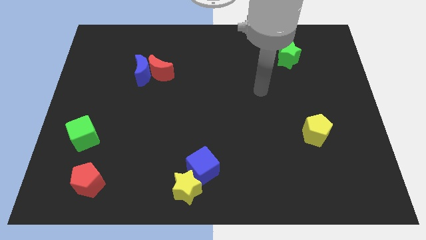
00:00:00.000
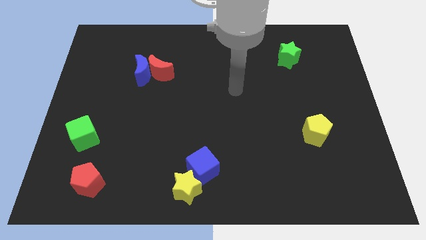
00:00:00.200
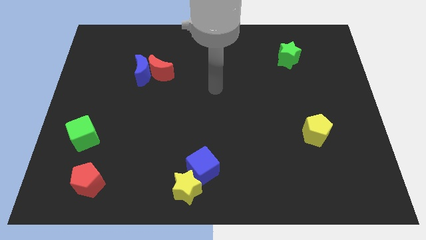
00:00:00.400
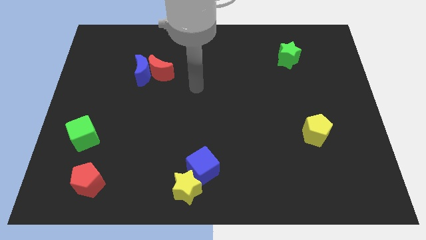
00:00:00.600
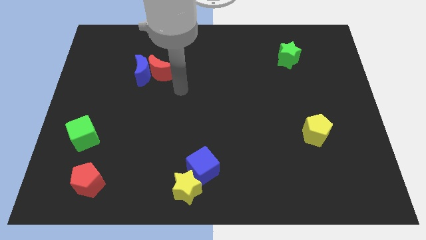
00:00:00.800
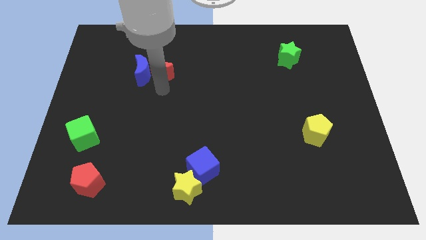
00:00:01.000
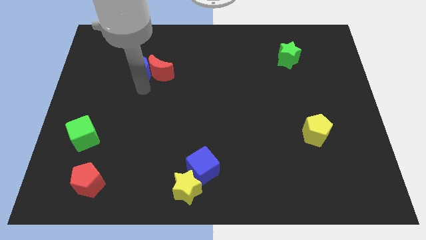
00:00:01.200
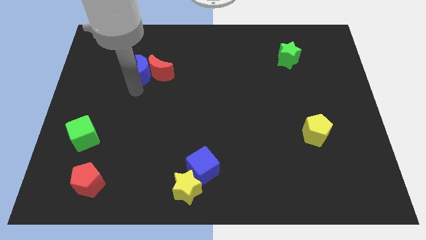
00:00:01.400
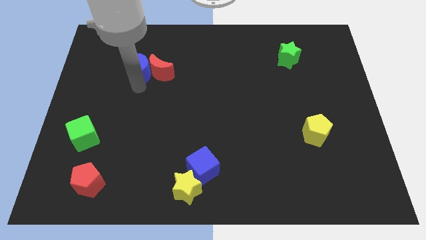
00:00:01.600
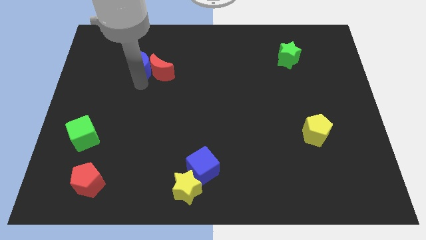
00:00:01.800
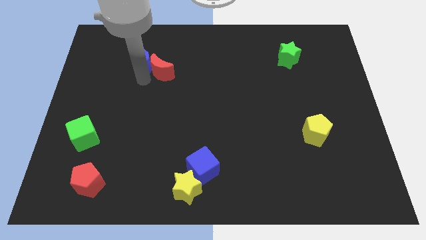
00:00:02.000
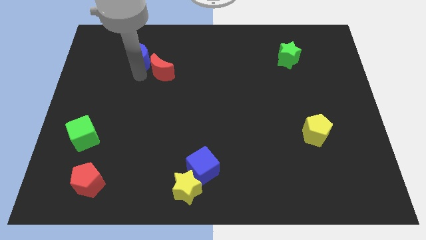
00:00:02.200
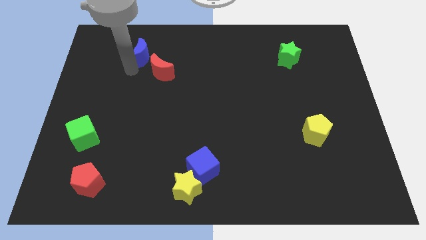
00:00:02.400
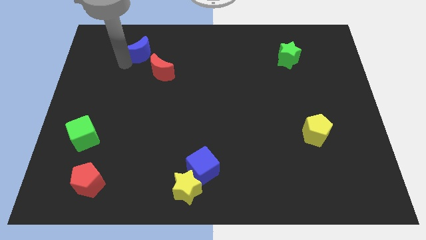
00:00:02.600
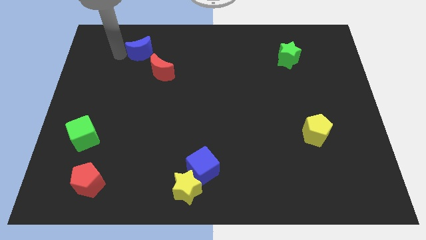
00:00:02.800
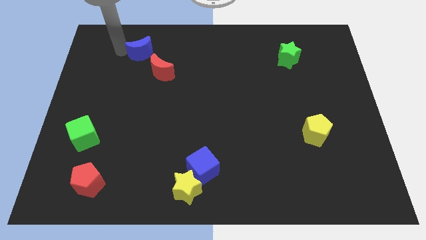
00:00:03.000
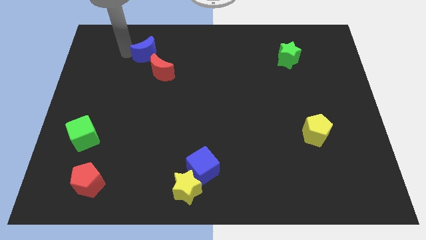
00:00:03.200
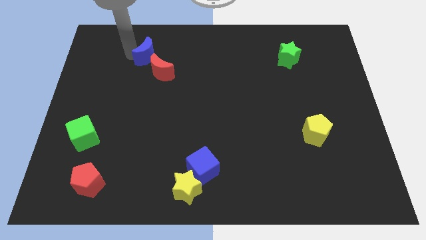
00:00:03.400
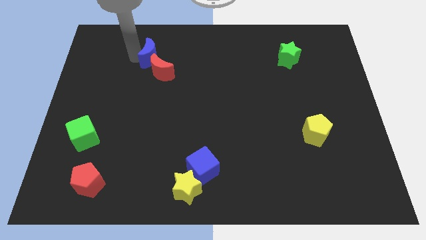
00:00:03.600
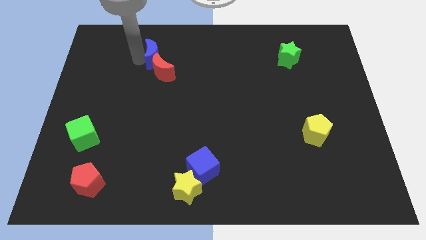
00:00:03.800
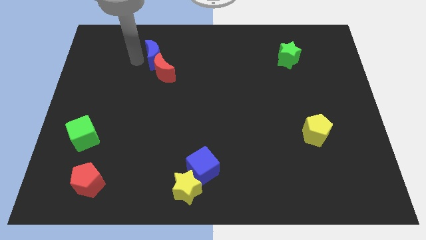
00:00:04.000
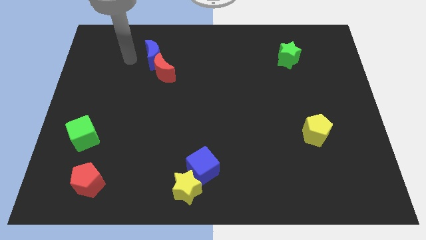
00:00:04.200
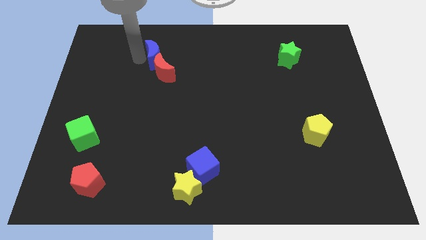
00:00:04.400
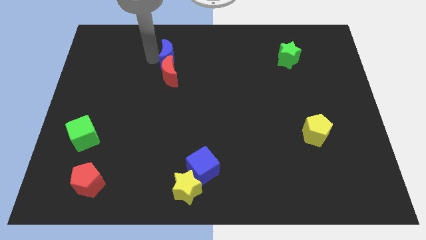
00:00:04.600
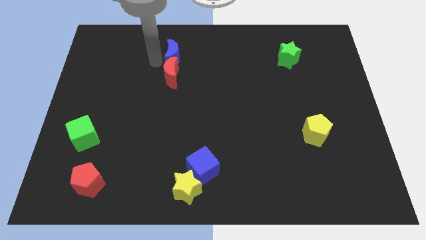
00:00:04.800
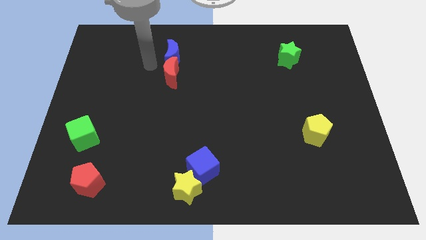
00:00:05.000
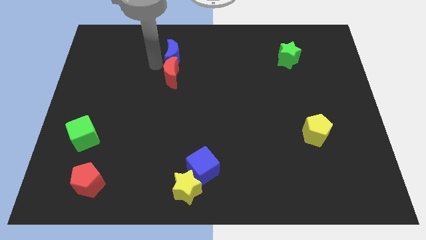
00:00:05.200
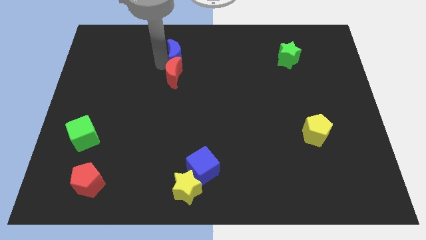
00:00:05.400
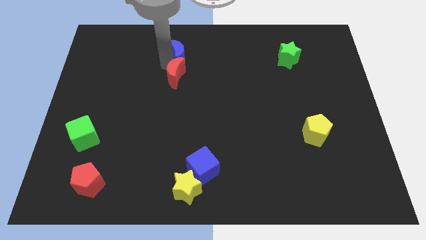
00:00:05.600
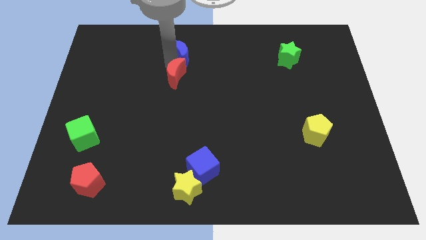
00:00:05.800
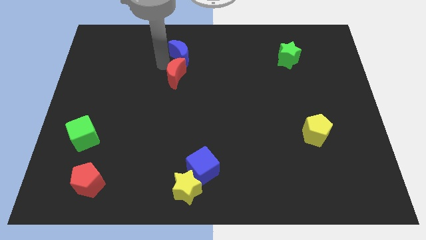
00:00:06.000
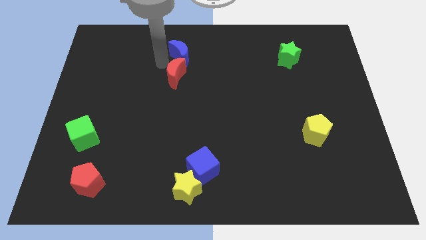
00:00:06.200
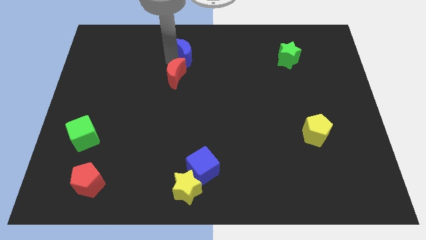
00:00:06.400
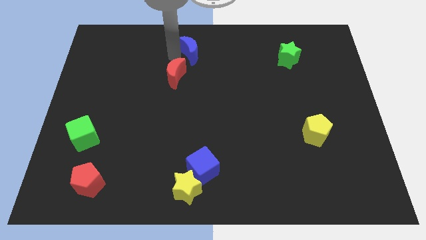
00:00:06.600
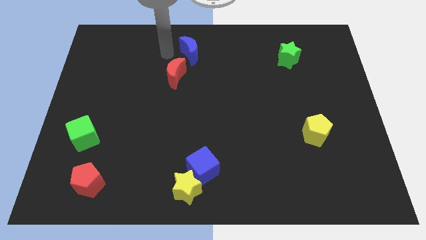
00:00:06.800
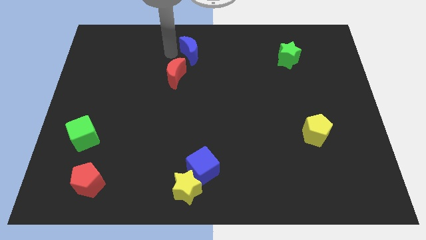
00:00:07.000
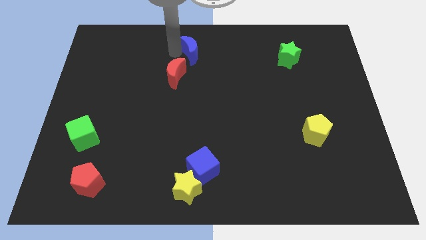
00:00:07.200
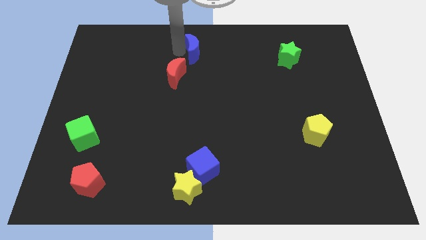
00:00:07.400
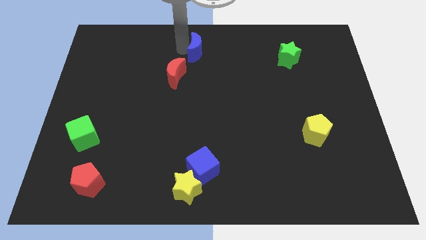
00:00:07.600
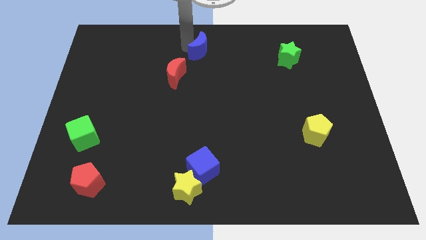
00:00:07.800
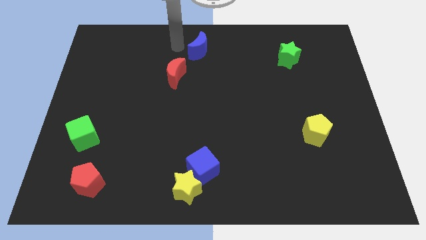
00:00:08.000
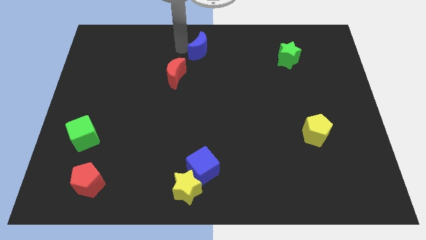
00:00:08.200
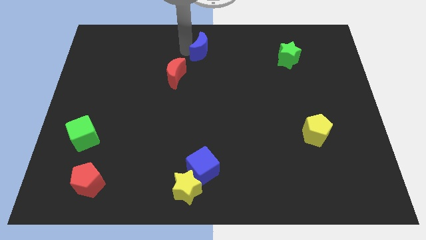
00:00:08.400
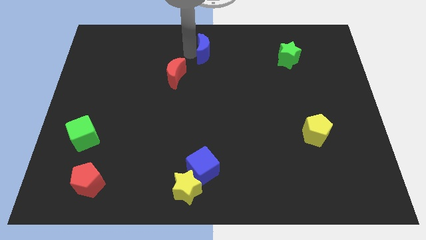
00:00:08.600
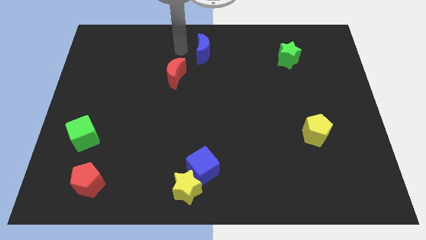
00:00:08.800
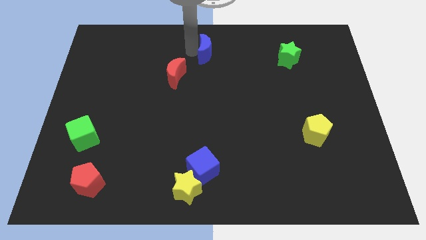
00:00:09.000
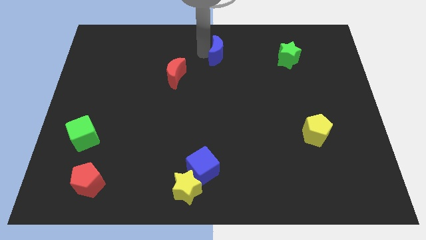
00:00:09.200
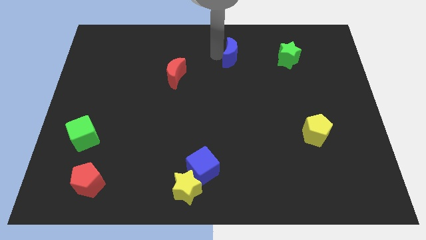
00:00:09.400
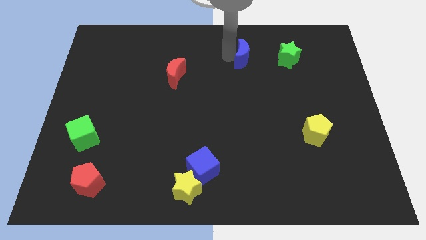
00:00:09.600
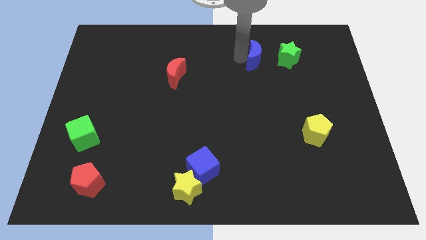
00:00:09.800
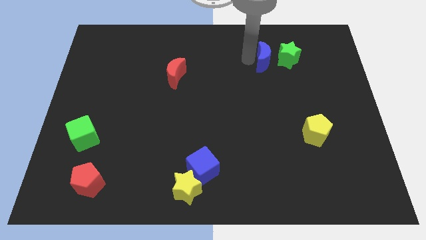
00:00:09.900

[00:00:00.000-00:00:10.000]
move the blue moon towards the green star

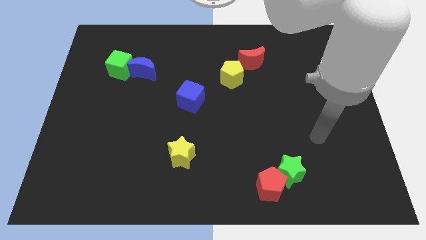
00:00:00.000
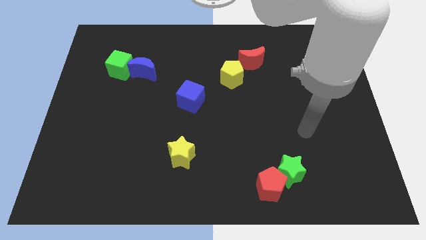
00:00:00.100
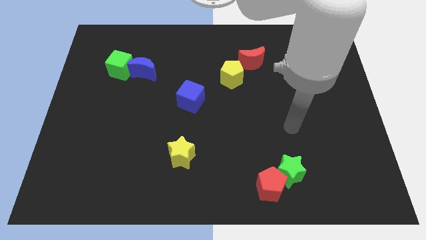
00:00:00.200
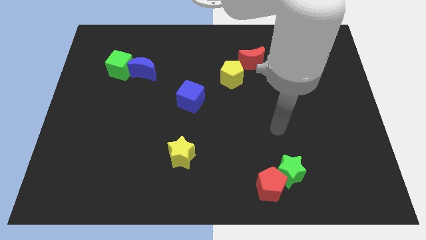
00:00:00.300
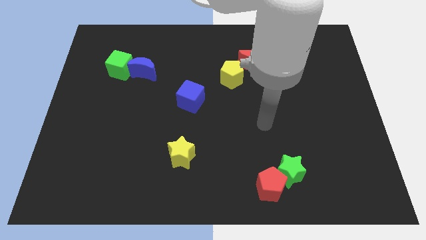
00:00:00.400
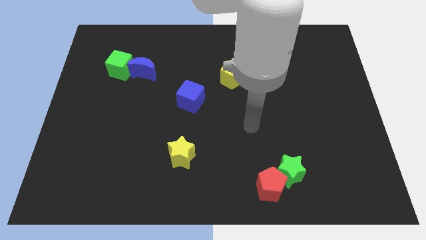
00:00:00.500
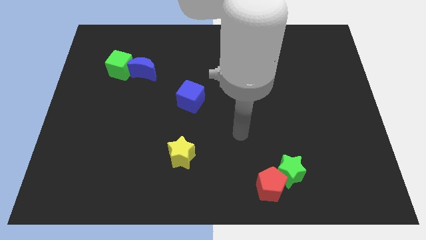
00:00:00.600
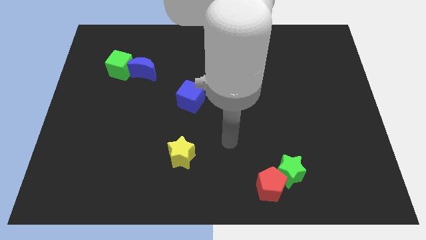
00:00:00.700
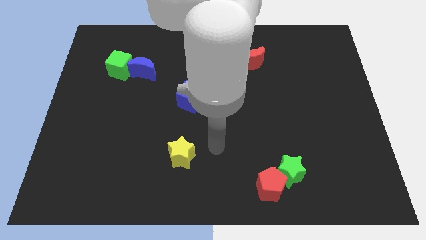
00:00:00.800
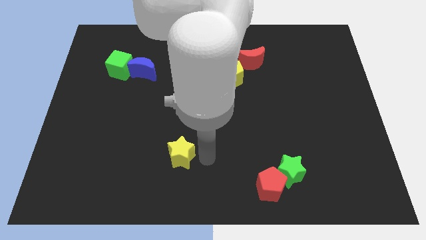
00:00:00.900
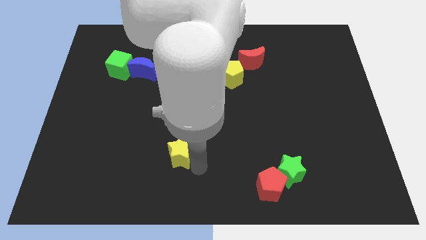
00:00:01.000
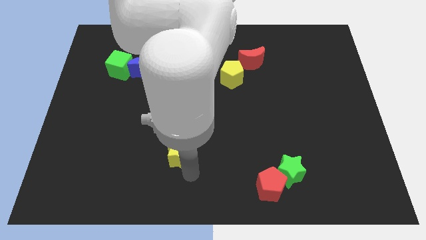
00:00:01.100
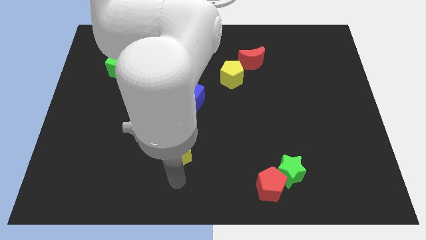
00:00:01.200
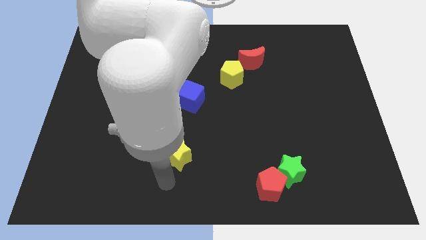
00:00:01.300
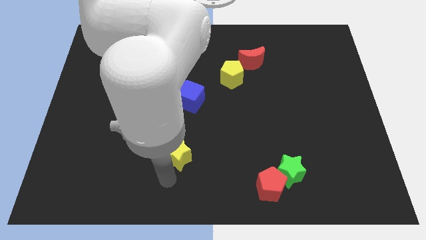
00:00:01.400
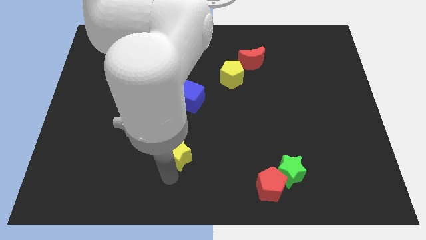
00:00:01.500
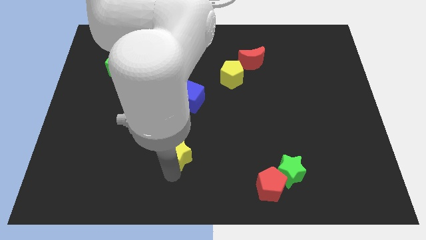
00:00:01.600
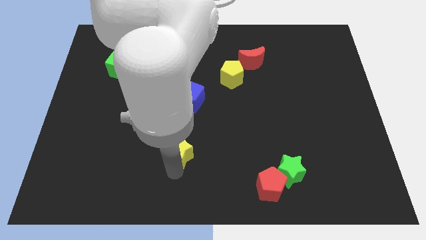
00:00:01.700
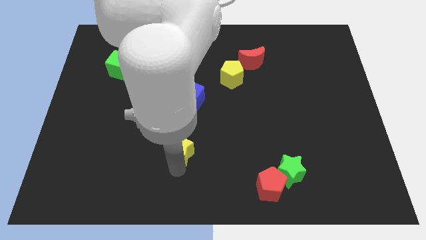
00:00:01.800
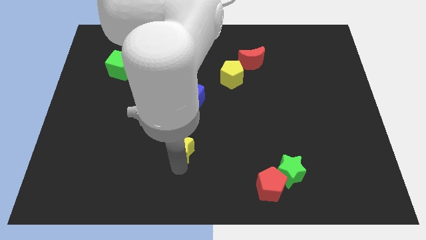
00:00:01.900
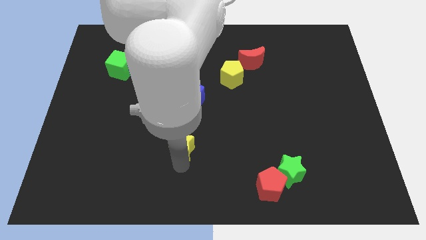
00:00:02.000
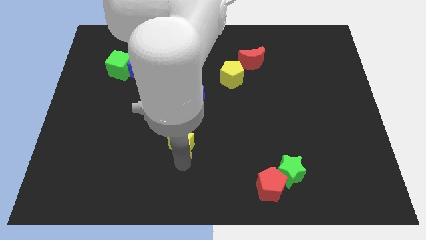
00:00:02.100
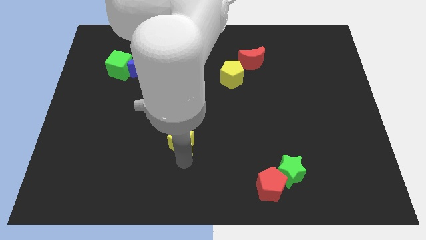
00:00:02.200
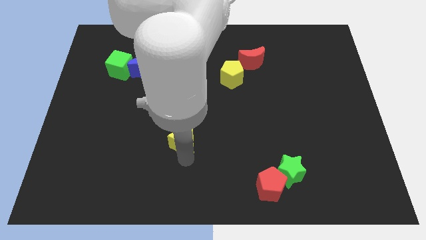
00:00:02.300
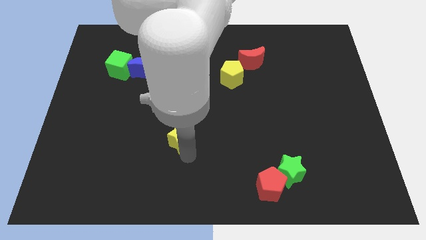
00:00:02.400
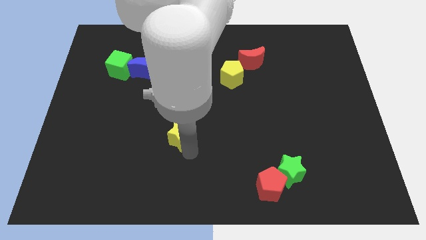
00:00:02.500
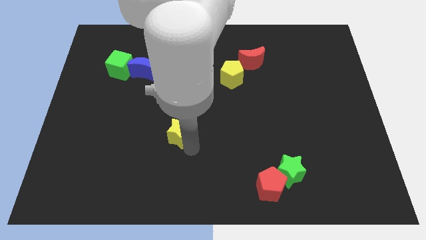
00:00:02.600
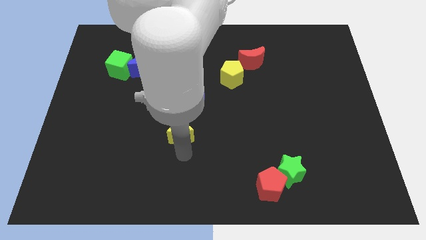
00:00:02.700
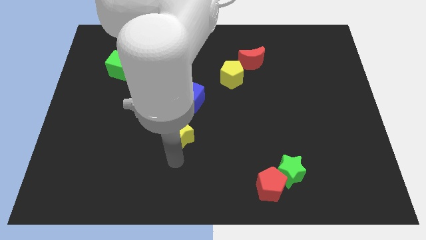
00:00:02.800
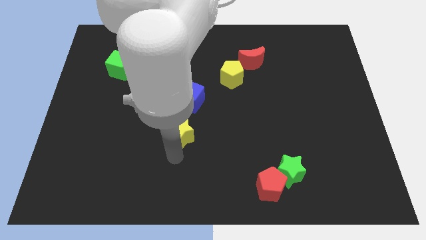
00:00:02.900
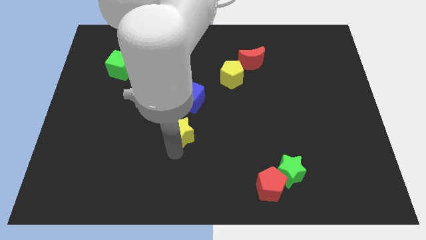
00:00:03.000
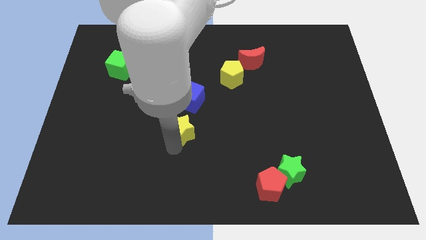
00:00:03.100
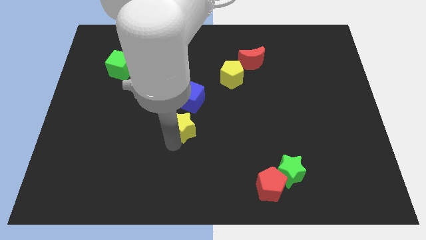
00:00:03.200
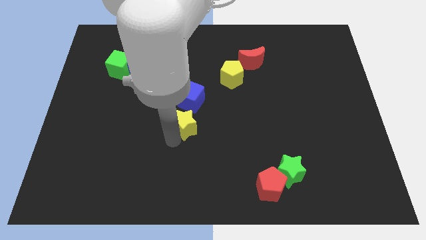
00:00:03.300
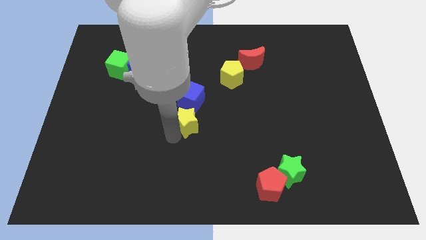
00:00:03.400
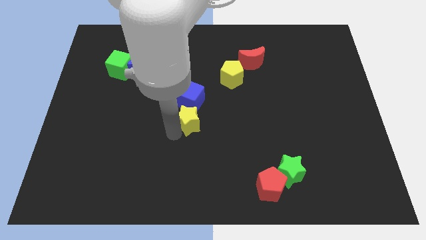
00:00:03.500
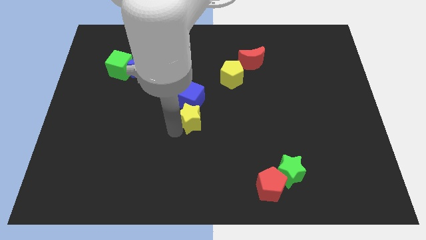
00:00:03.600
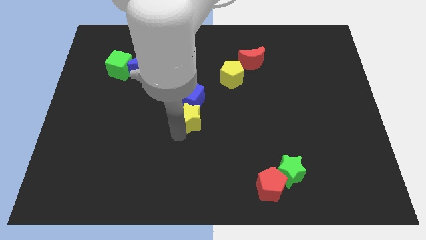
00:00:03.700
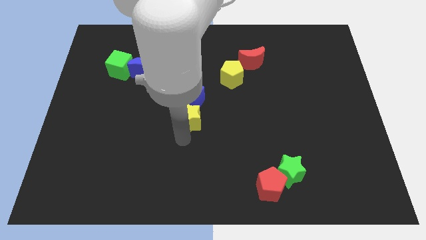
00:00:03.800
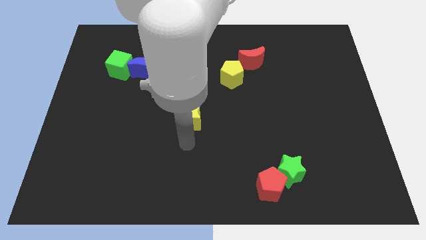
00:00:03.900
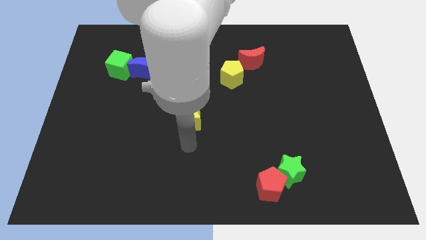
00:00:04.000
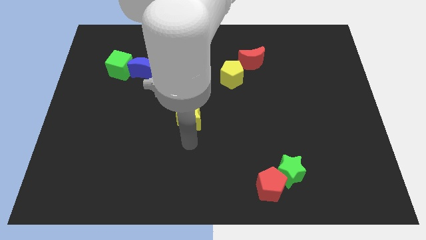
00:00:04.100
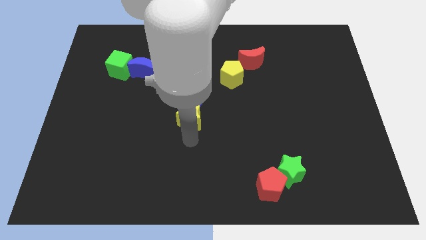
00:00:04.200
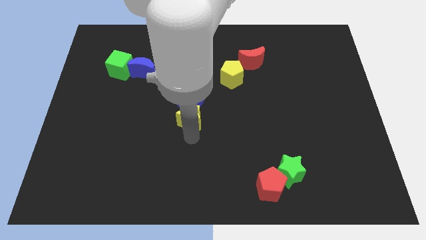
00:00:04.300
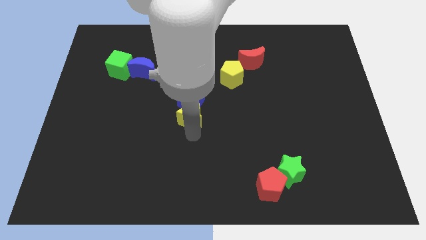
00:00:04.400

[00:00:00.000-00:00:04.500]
put the yellow star towards the blue cube
